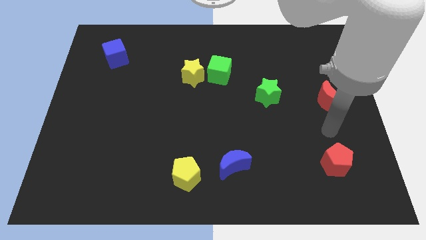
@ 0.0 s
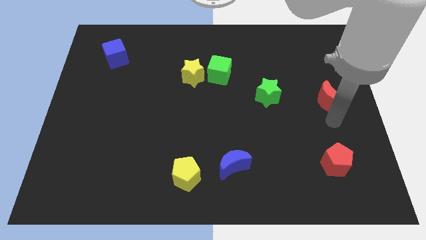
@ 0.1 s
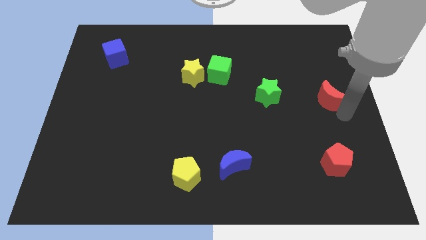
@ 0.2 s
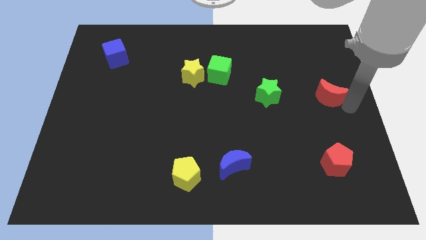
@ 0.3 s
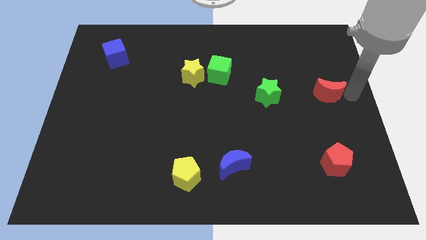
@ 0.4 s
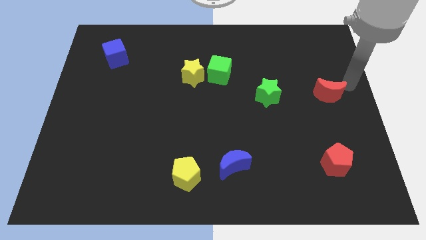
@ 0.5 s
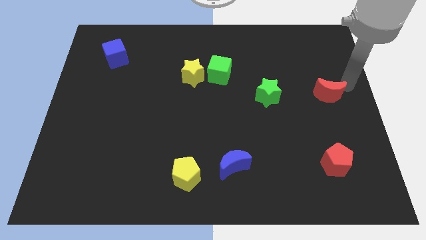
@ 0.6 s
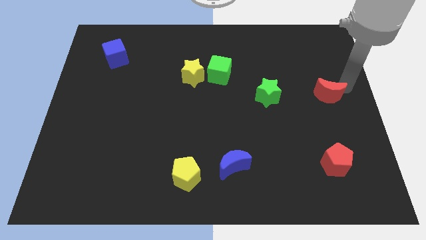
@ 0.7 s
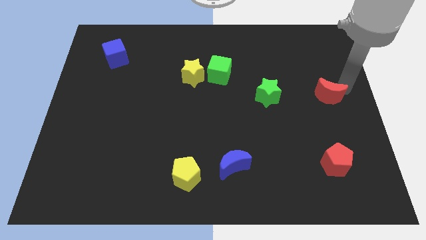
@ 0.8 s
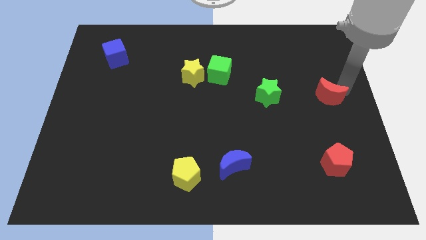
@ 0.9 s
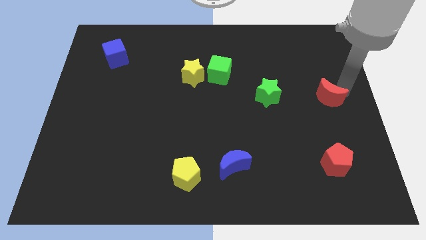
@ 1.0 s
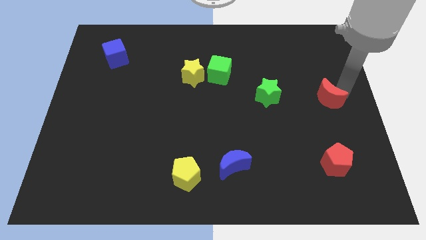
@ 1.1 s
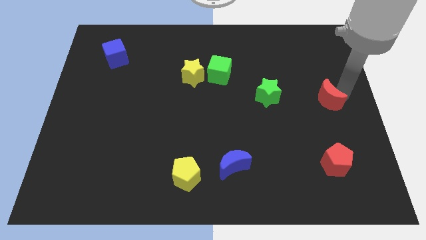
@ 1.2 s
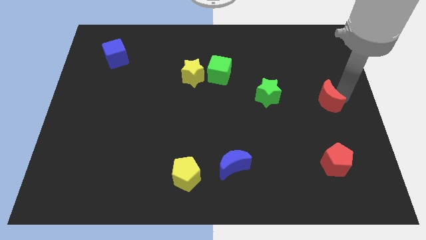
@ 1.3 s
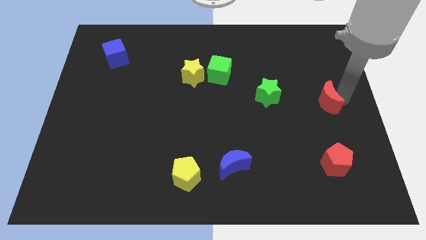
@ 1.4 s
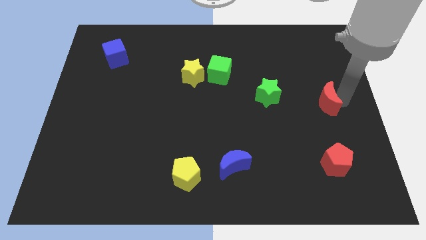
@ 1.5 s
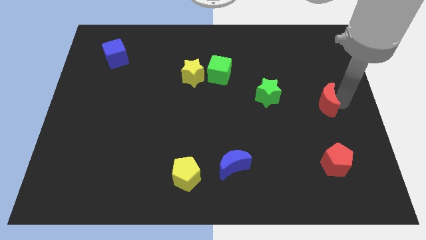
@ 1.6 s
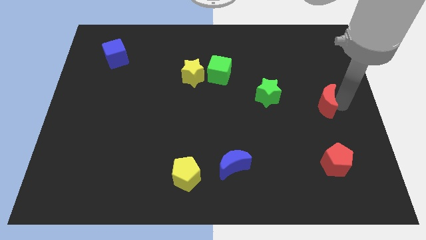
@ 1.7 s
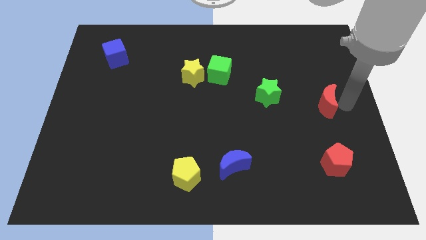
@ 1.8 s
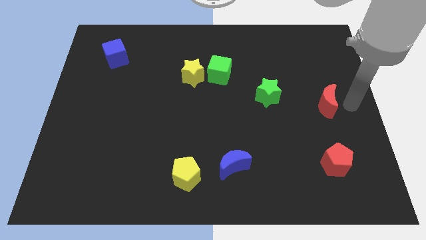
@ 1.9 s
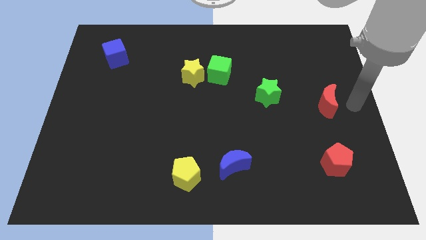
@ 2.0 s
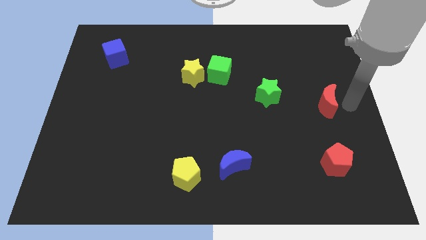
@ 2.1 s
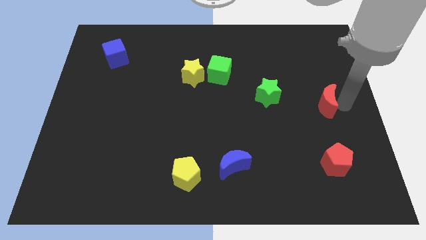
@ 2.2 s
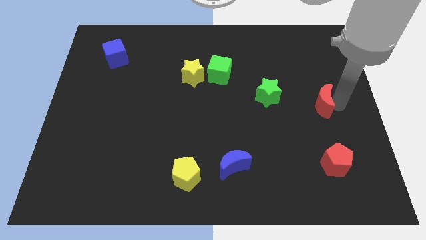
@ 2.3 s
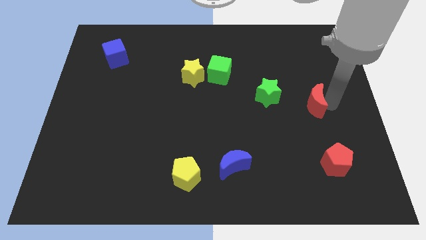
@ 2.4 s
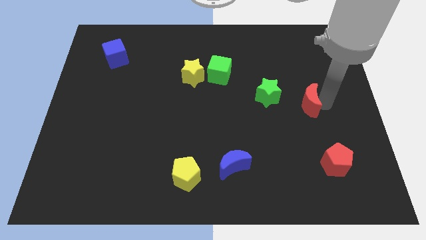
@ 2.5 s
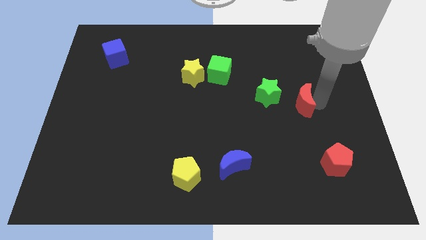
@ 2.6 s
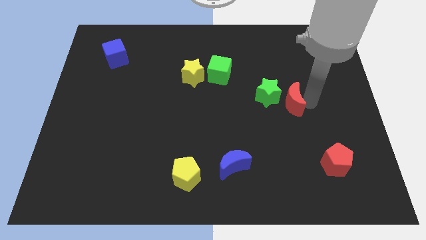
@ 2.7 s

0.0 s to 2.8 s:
slightly push the red moon to the left

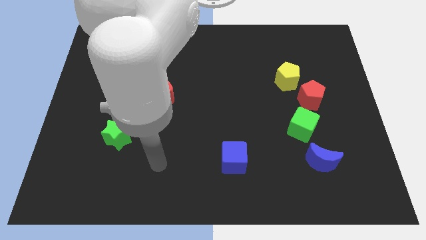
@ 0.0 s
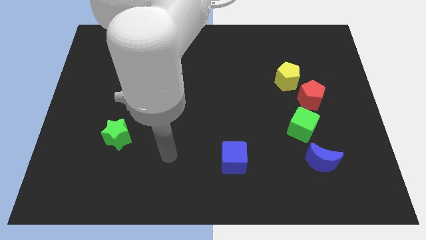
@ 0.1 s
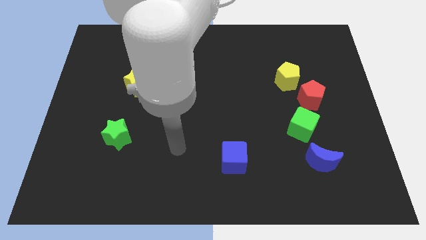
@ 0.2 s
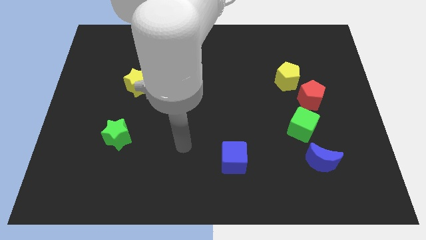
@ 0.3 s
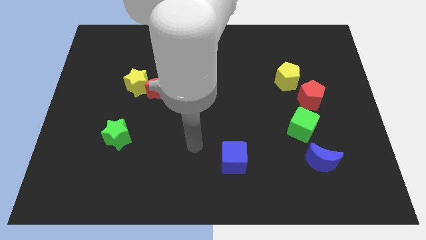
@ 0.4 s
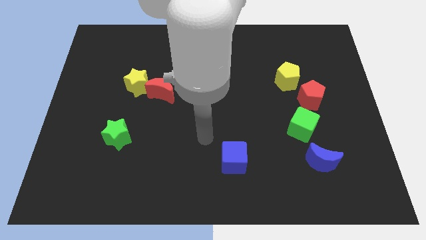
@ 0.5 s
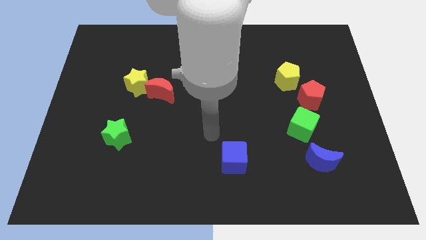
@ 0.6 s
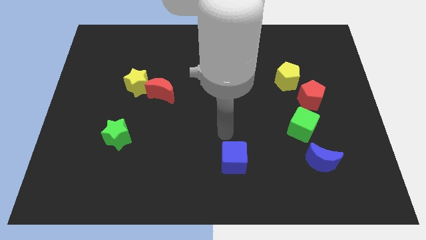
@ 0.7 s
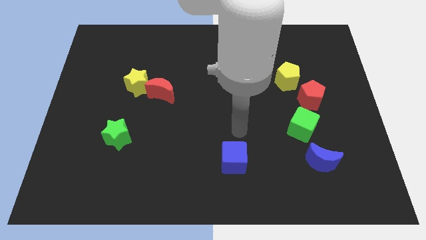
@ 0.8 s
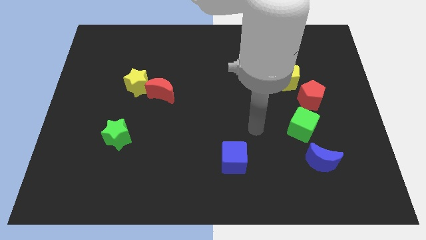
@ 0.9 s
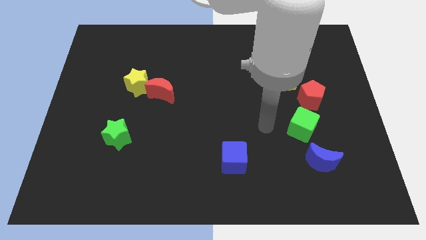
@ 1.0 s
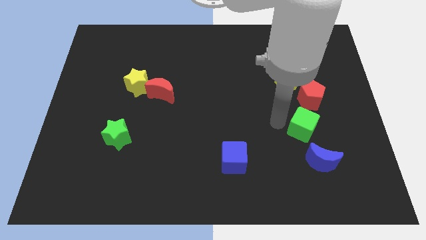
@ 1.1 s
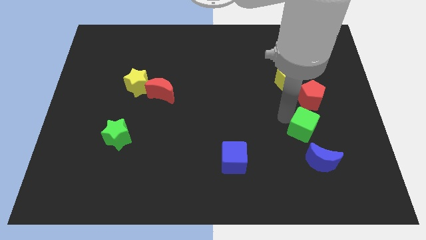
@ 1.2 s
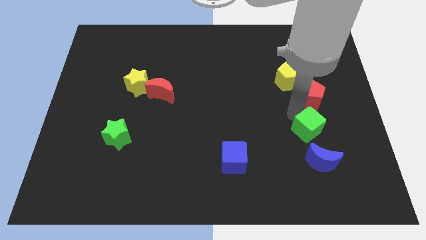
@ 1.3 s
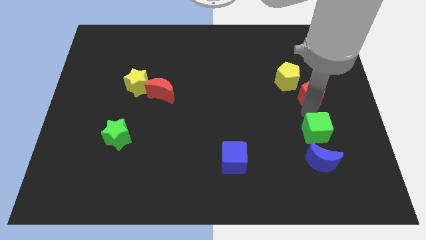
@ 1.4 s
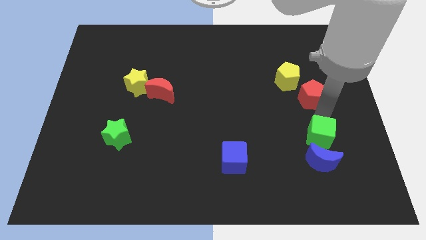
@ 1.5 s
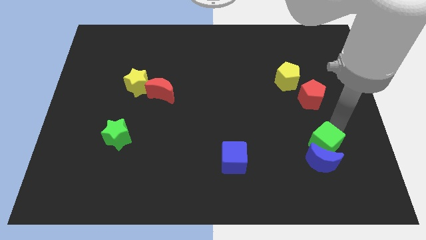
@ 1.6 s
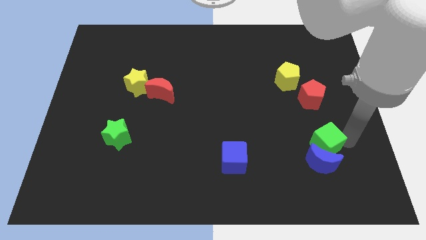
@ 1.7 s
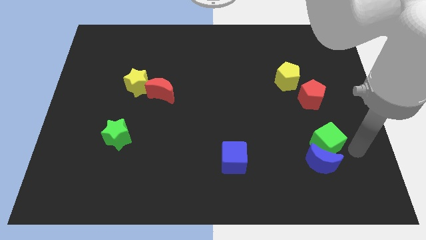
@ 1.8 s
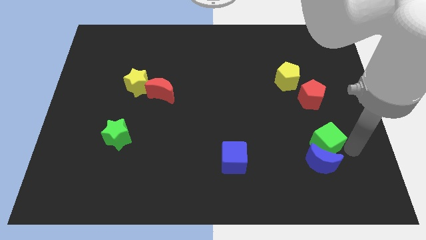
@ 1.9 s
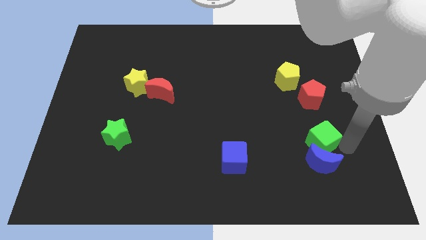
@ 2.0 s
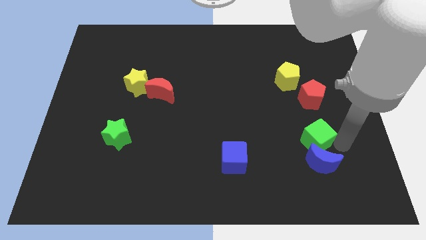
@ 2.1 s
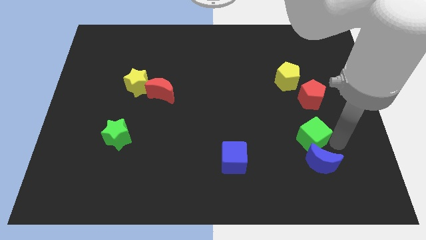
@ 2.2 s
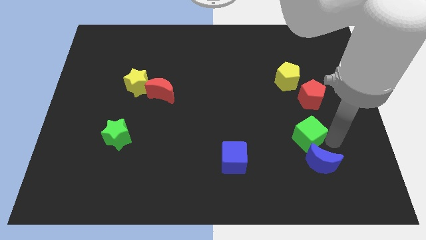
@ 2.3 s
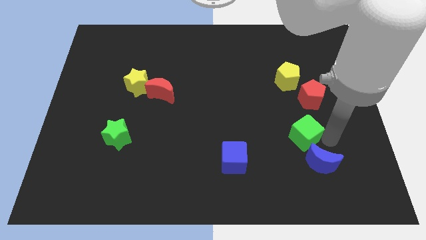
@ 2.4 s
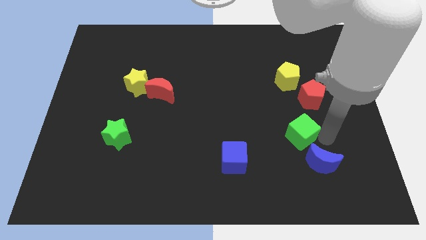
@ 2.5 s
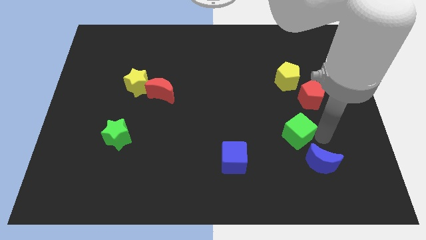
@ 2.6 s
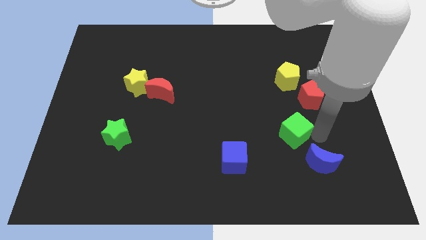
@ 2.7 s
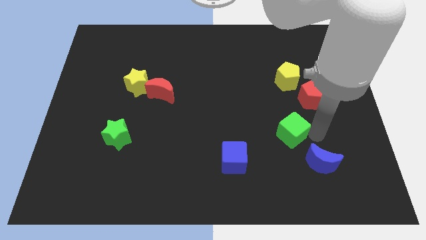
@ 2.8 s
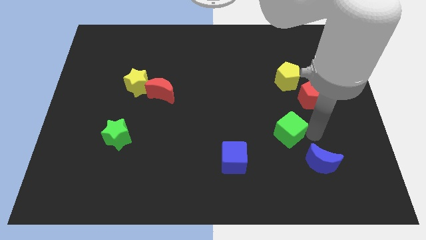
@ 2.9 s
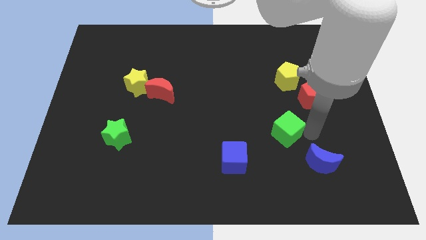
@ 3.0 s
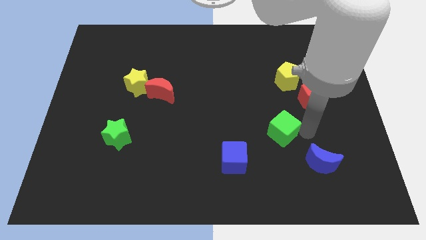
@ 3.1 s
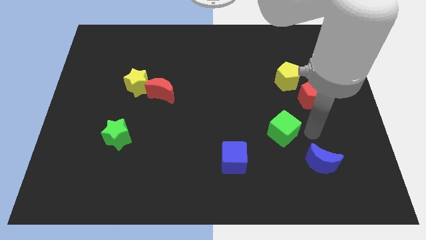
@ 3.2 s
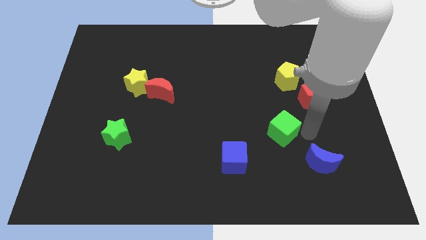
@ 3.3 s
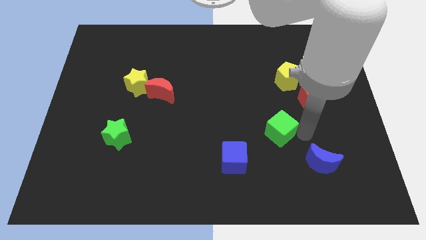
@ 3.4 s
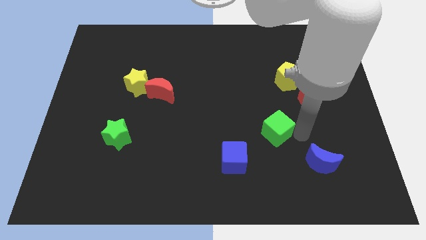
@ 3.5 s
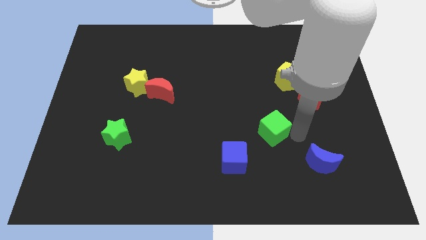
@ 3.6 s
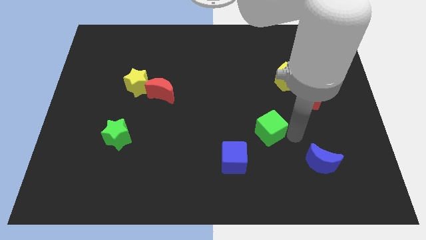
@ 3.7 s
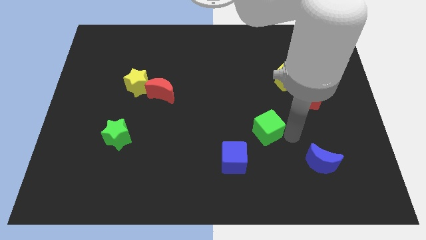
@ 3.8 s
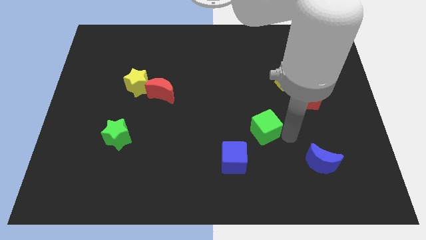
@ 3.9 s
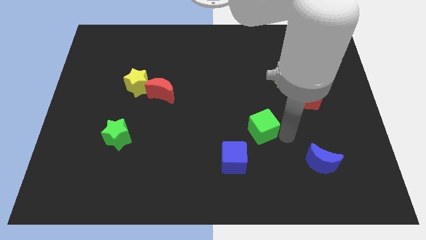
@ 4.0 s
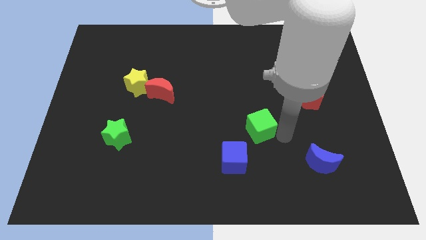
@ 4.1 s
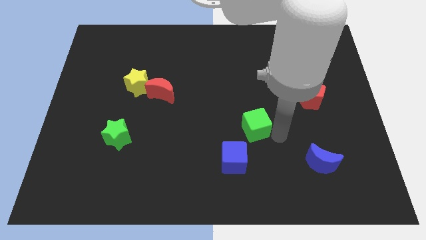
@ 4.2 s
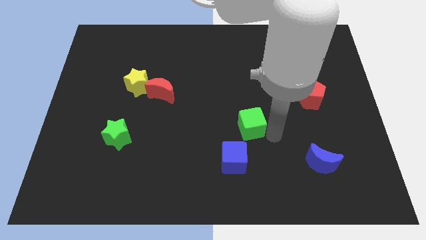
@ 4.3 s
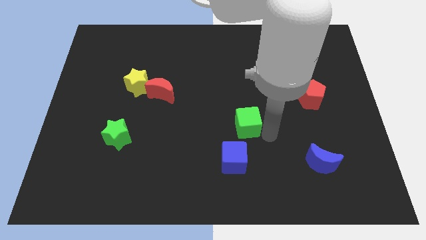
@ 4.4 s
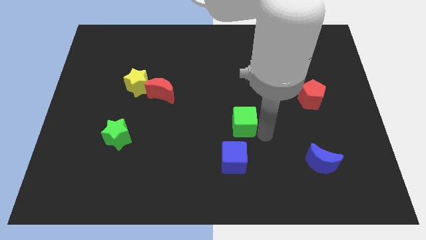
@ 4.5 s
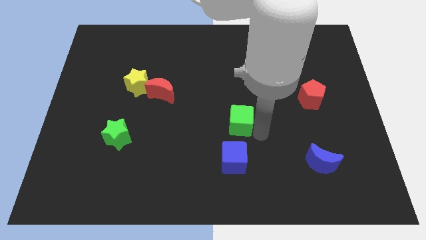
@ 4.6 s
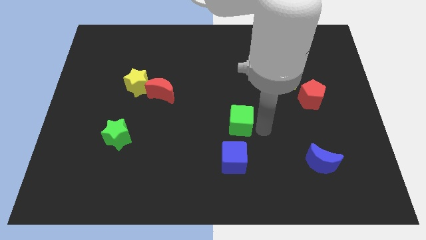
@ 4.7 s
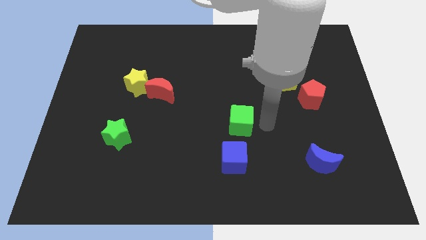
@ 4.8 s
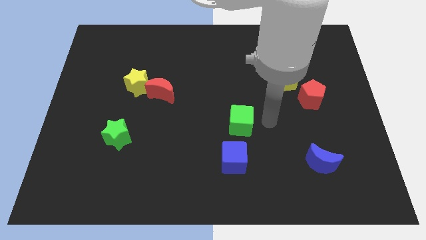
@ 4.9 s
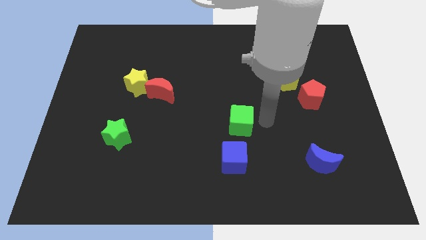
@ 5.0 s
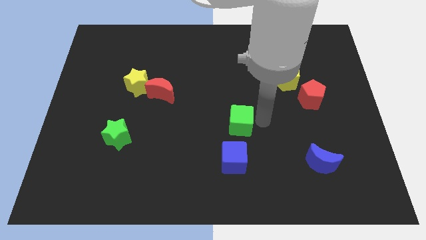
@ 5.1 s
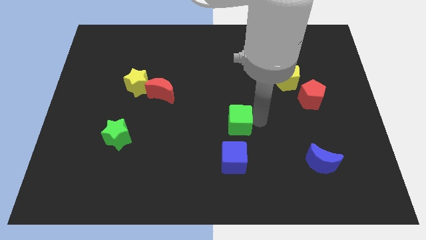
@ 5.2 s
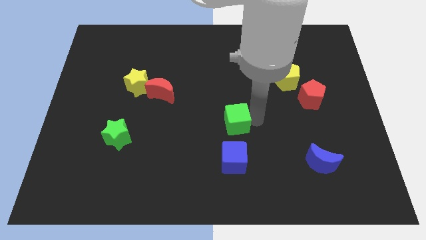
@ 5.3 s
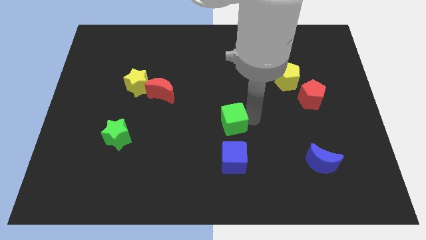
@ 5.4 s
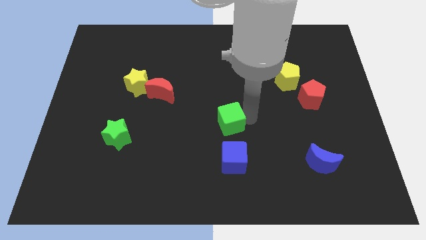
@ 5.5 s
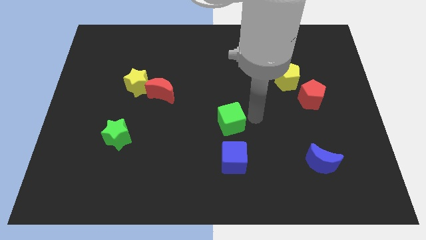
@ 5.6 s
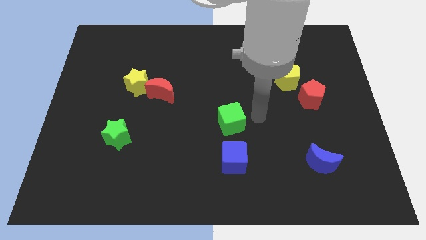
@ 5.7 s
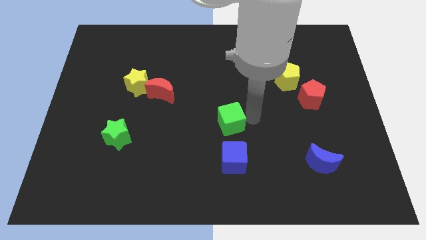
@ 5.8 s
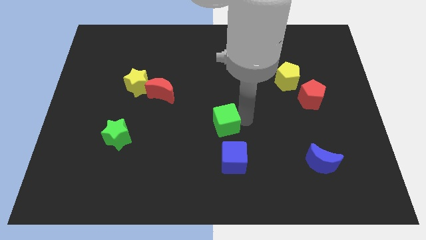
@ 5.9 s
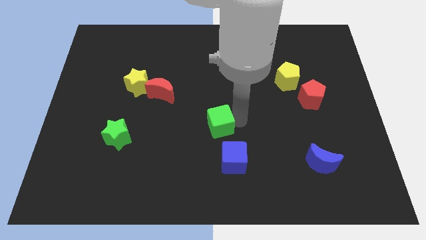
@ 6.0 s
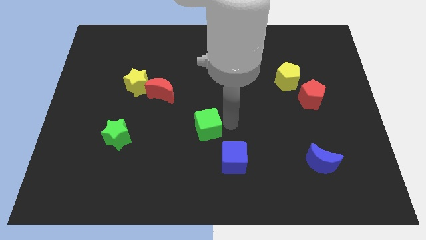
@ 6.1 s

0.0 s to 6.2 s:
move the green cube to the left
